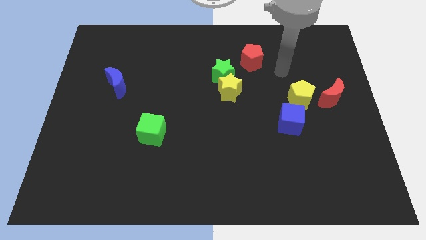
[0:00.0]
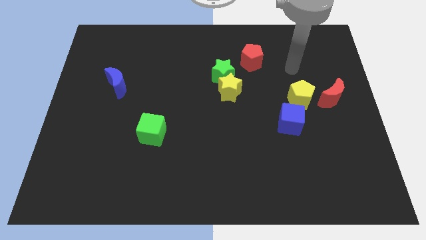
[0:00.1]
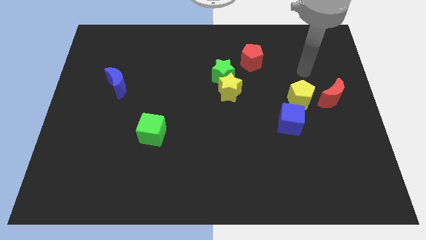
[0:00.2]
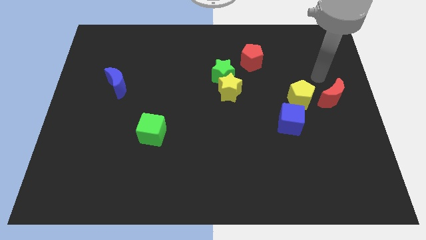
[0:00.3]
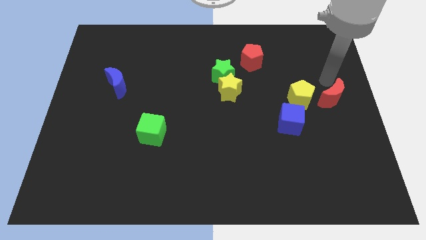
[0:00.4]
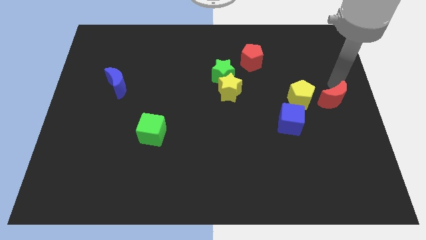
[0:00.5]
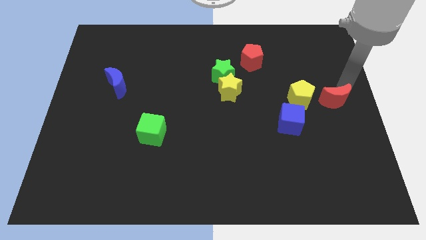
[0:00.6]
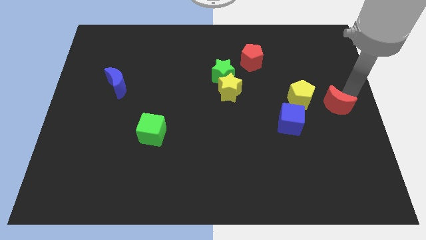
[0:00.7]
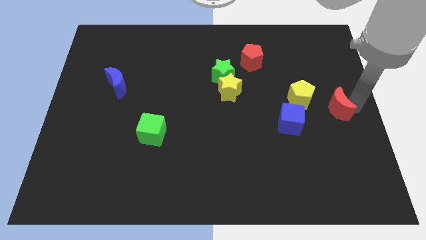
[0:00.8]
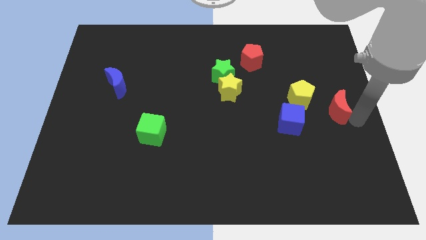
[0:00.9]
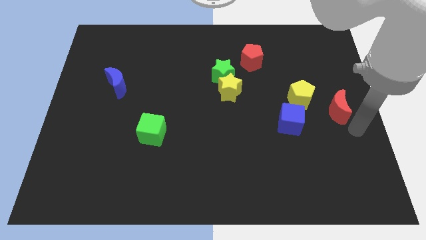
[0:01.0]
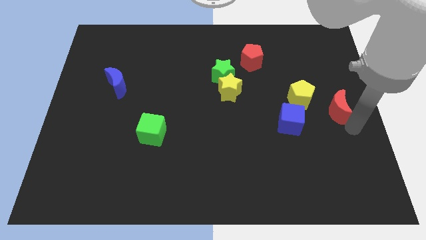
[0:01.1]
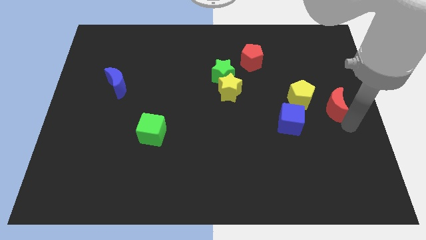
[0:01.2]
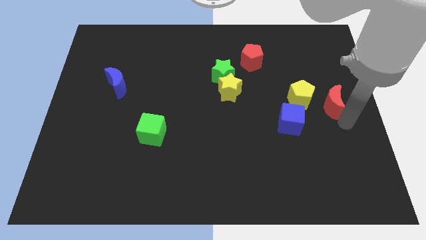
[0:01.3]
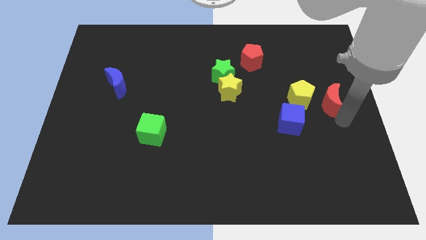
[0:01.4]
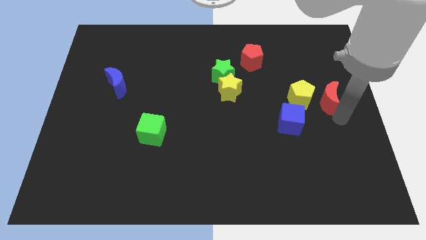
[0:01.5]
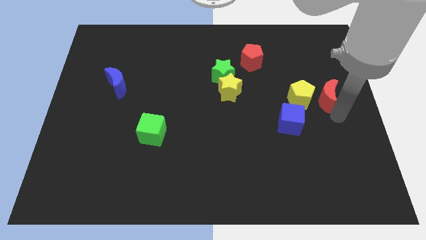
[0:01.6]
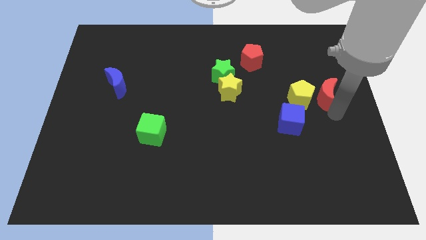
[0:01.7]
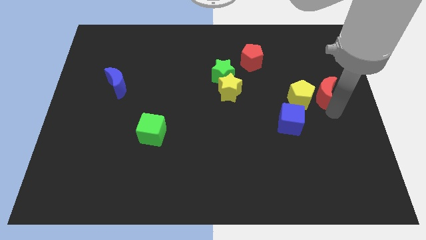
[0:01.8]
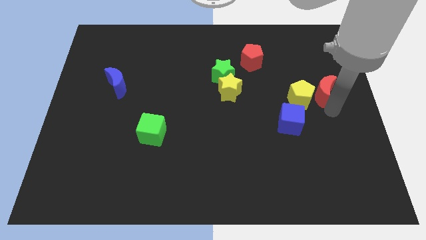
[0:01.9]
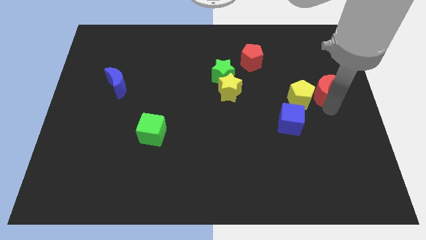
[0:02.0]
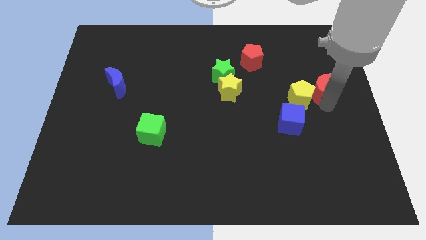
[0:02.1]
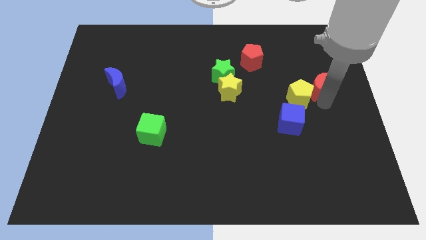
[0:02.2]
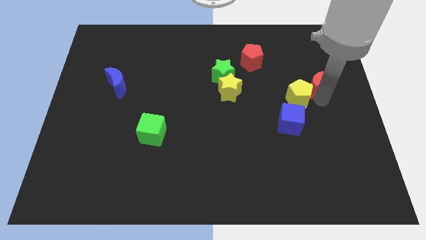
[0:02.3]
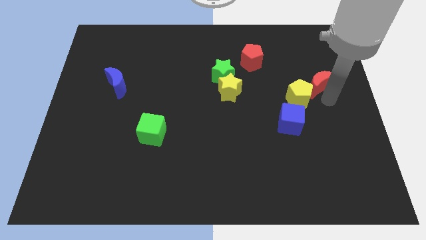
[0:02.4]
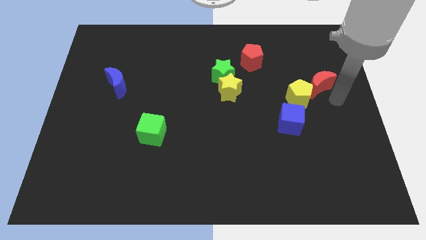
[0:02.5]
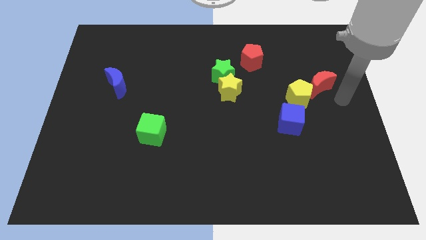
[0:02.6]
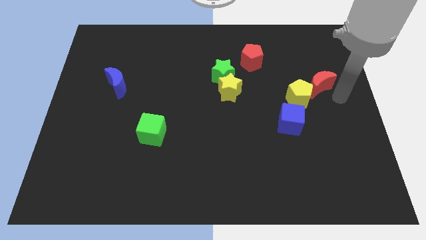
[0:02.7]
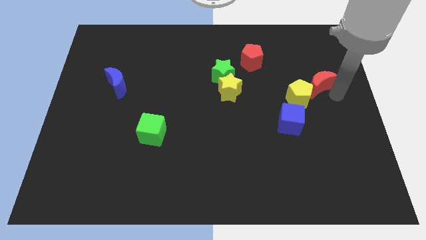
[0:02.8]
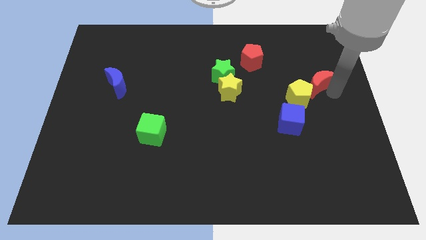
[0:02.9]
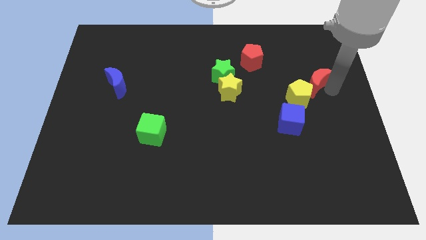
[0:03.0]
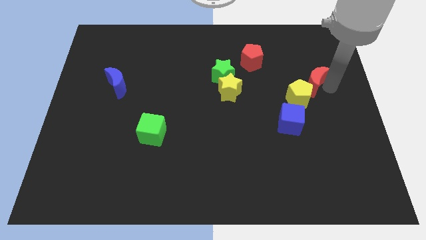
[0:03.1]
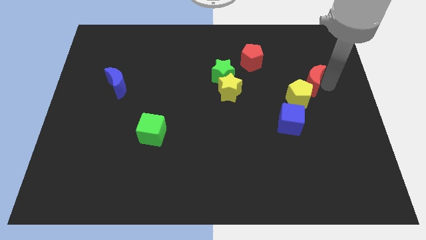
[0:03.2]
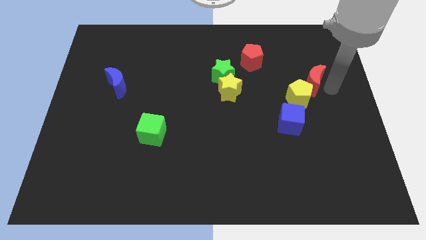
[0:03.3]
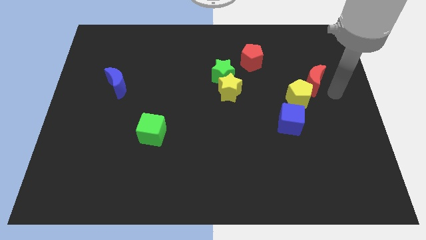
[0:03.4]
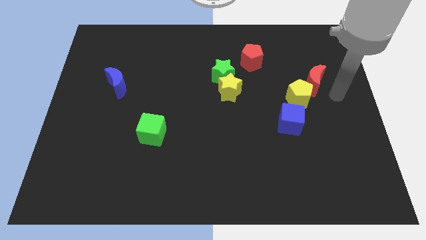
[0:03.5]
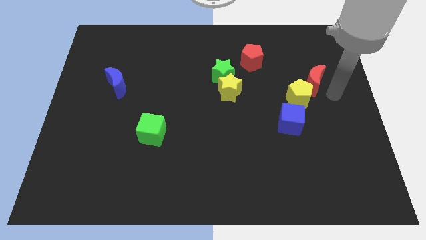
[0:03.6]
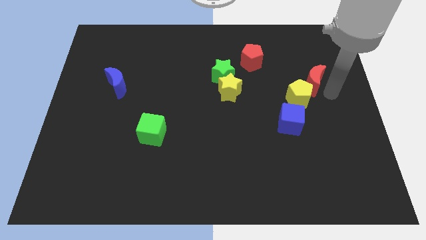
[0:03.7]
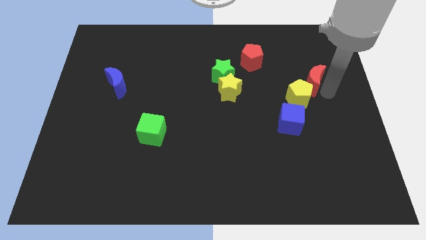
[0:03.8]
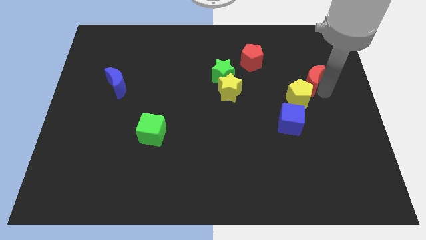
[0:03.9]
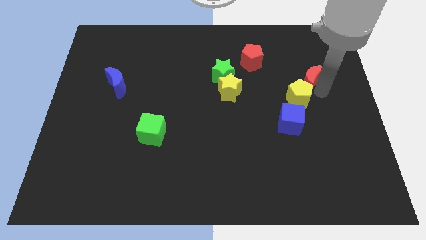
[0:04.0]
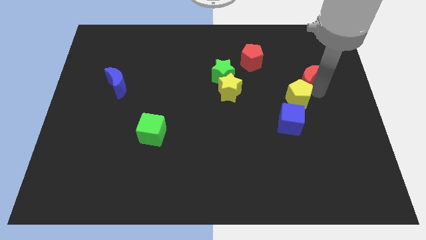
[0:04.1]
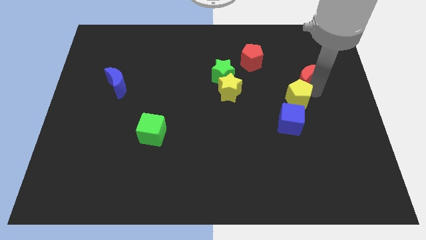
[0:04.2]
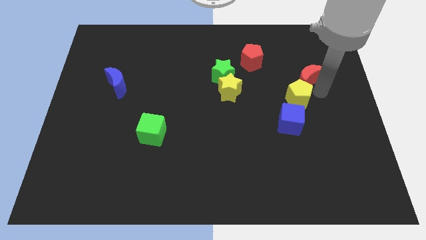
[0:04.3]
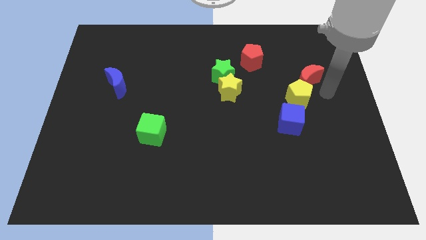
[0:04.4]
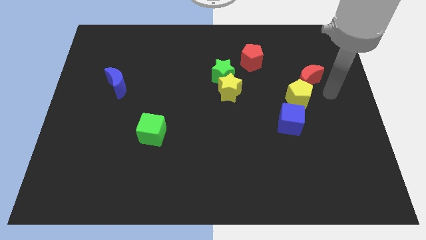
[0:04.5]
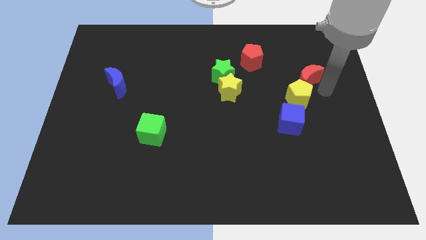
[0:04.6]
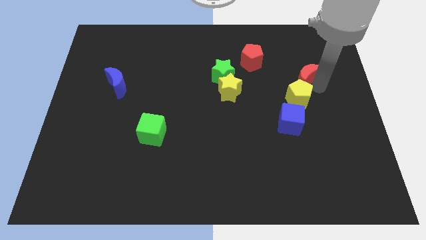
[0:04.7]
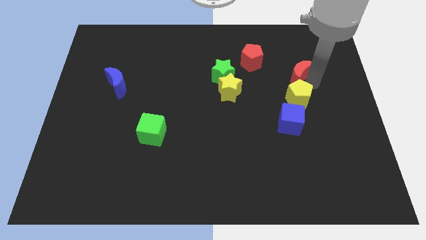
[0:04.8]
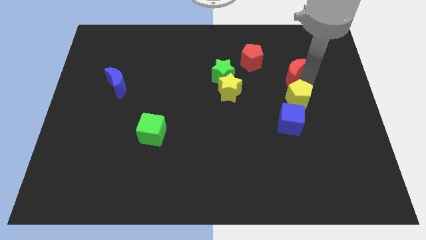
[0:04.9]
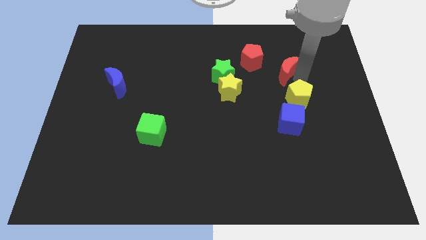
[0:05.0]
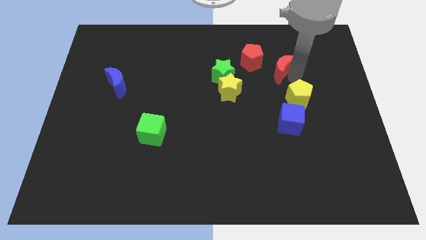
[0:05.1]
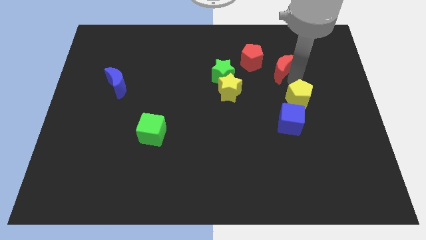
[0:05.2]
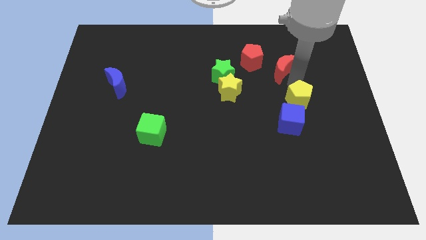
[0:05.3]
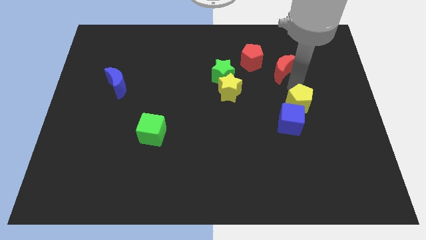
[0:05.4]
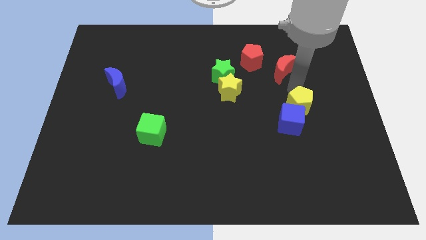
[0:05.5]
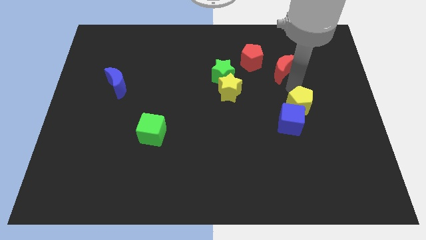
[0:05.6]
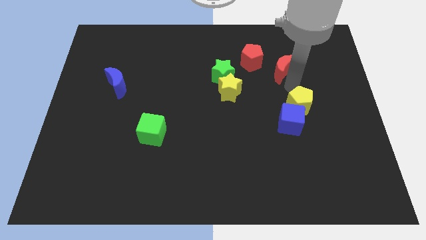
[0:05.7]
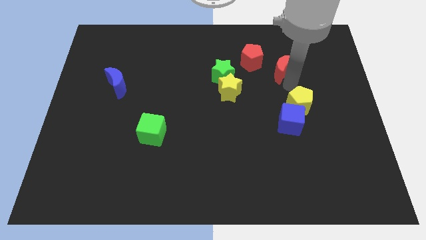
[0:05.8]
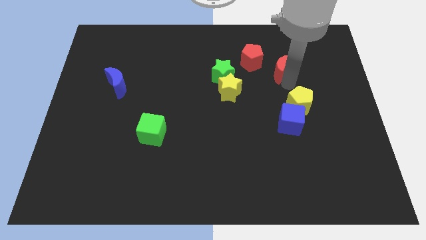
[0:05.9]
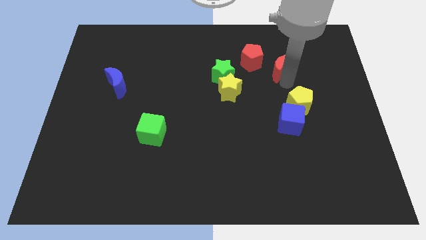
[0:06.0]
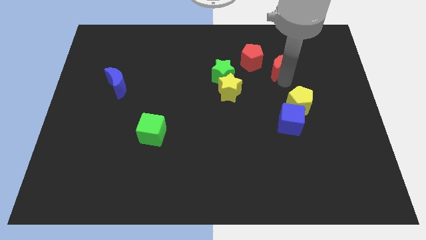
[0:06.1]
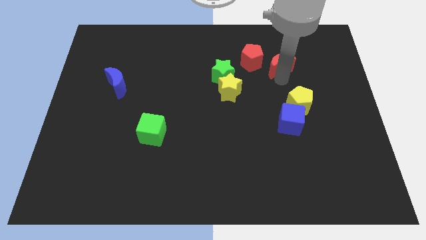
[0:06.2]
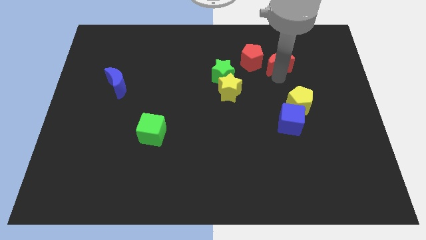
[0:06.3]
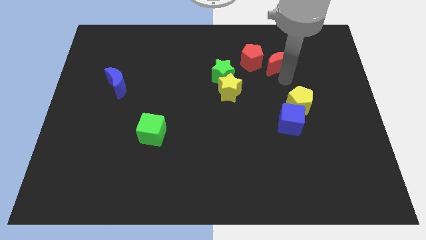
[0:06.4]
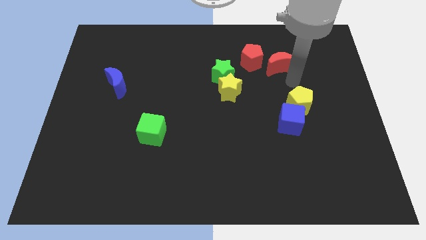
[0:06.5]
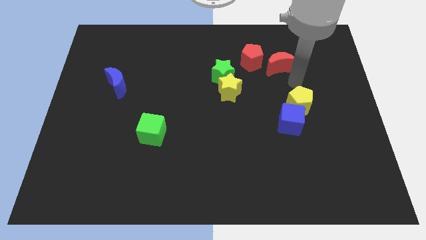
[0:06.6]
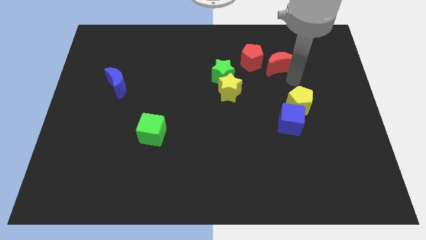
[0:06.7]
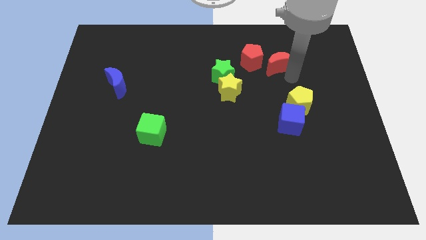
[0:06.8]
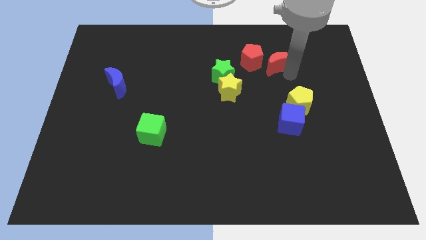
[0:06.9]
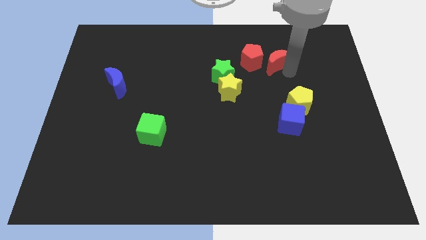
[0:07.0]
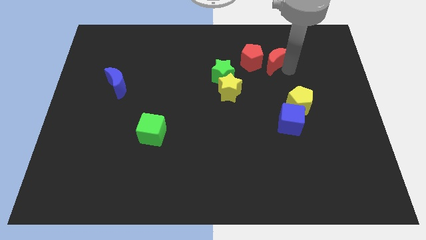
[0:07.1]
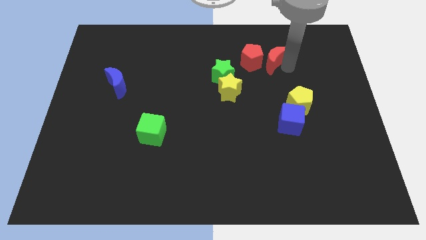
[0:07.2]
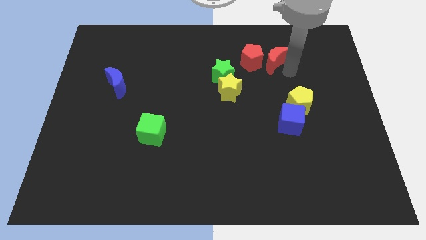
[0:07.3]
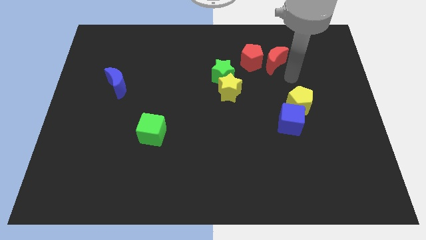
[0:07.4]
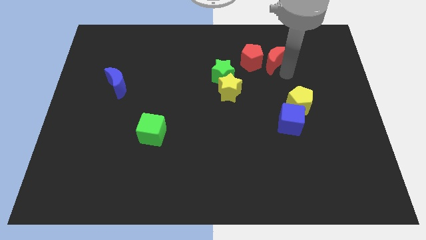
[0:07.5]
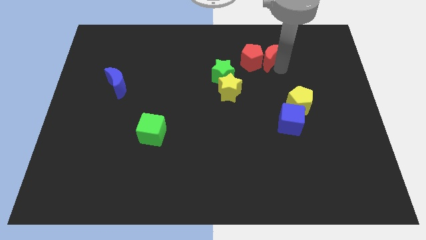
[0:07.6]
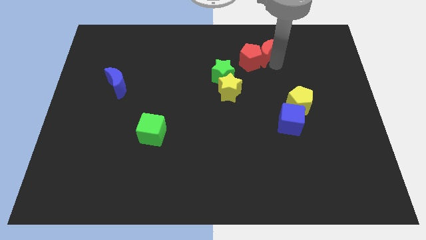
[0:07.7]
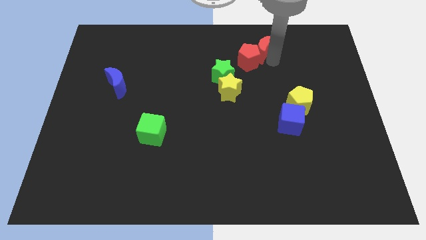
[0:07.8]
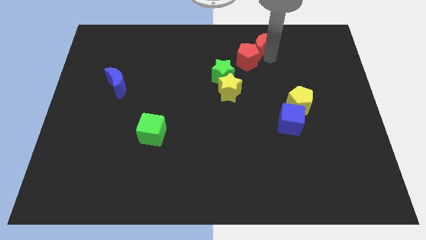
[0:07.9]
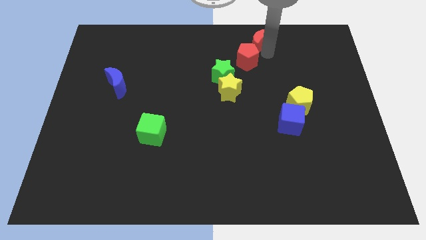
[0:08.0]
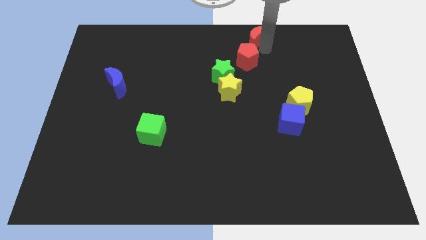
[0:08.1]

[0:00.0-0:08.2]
push the red moon to the top side
